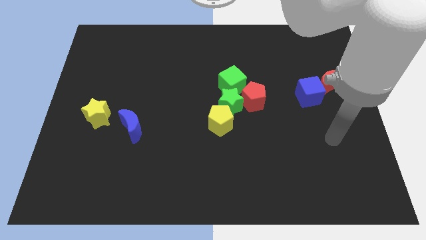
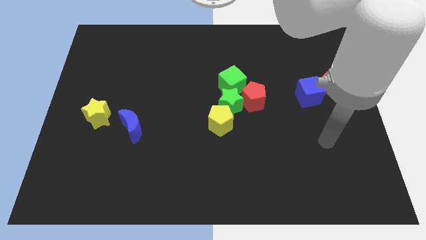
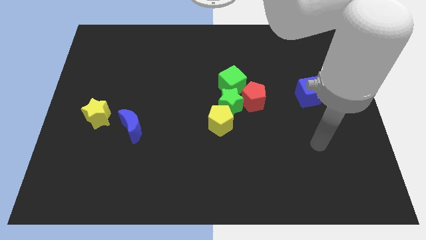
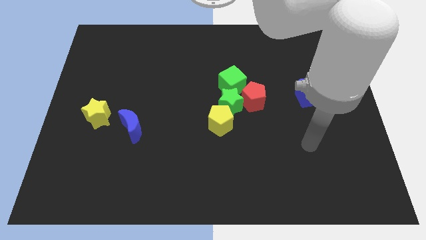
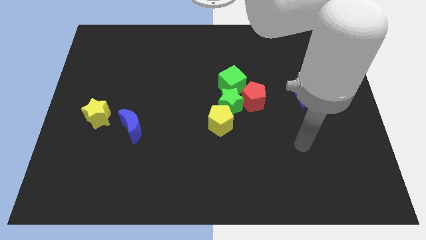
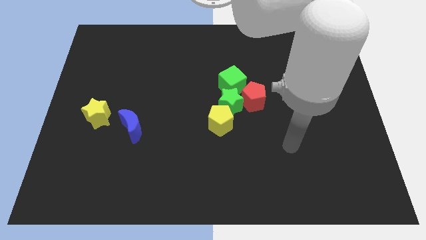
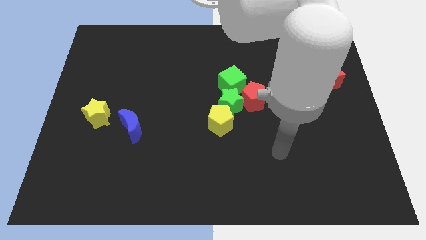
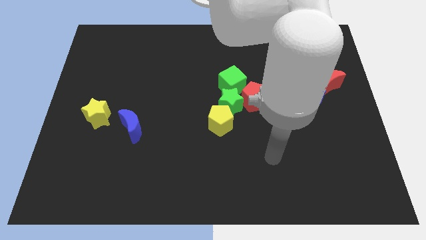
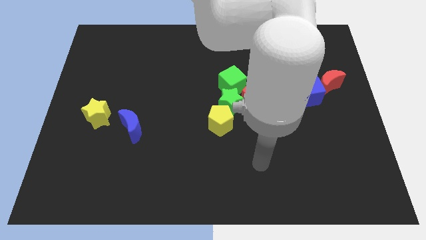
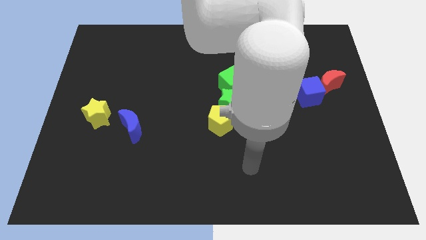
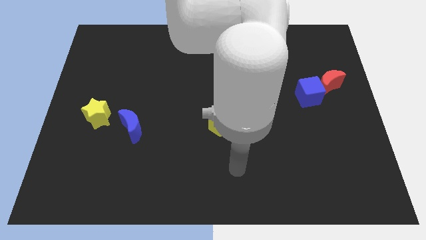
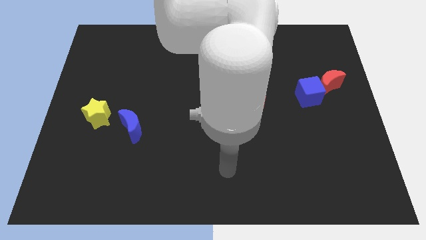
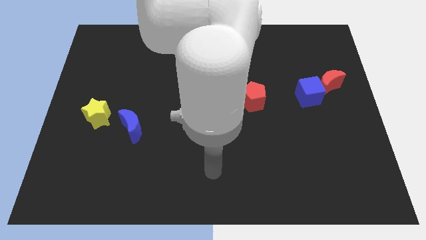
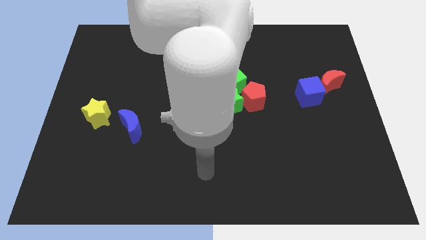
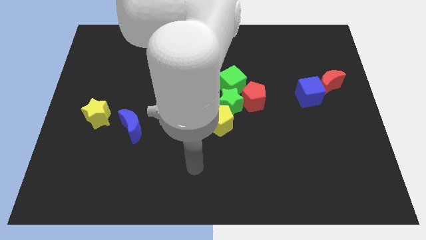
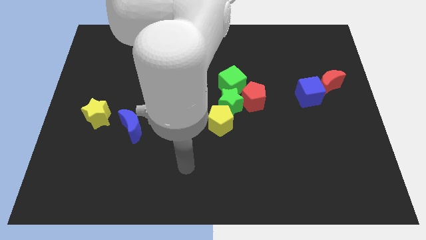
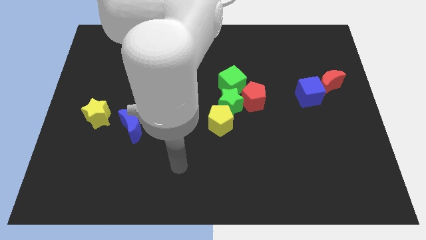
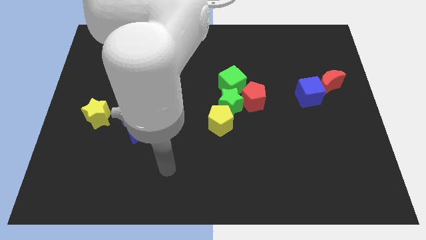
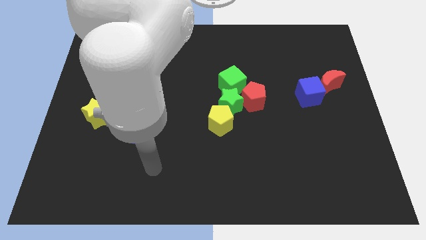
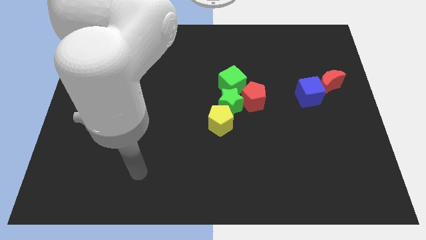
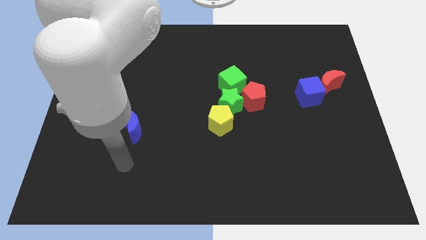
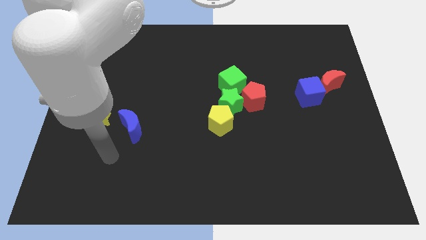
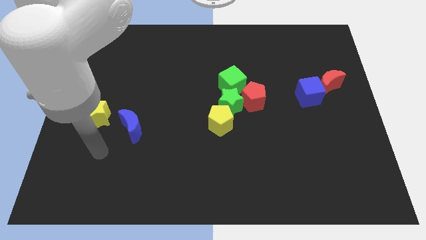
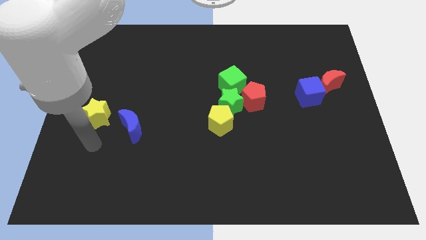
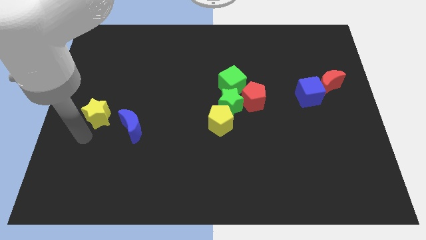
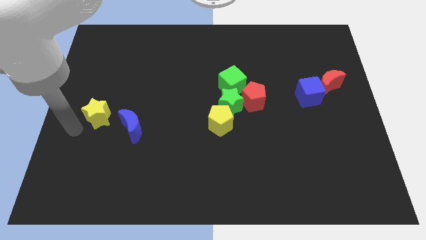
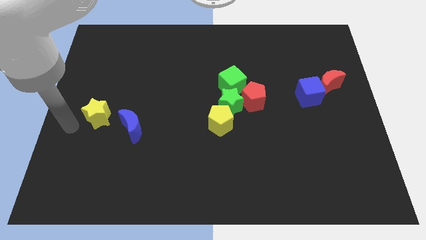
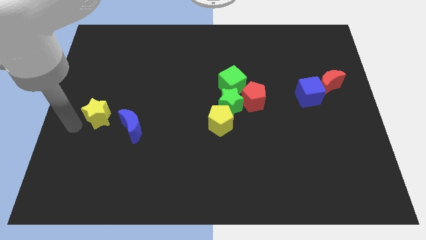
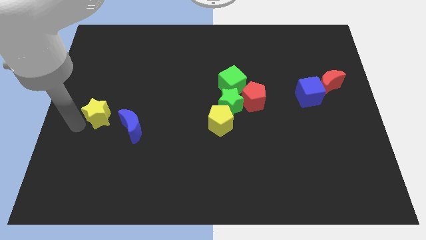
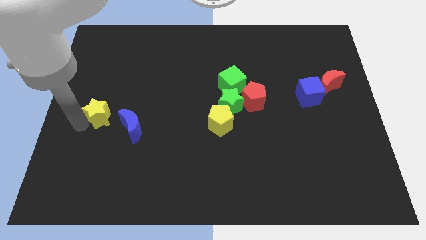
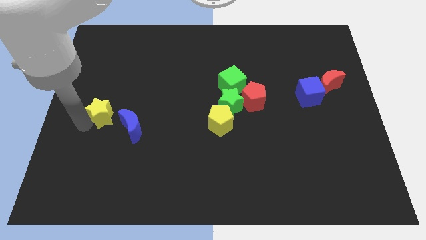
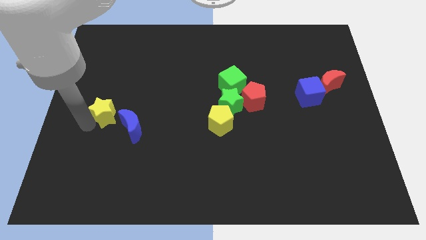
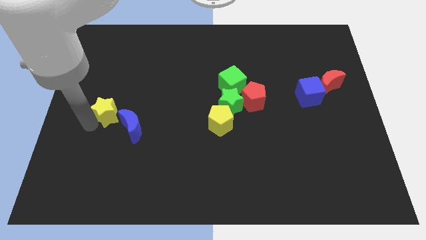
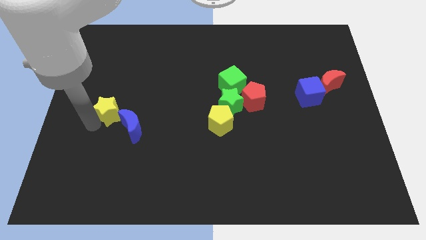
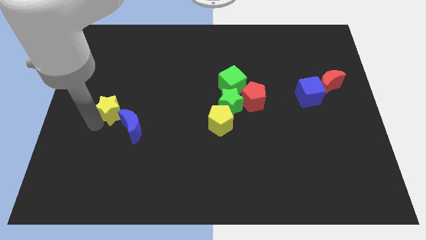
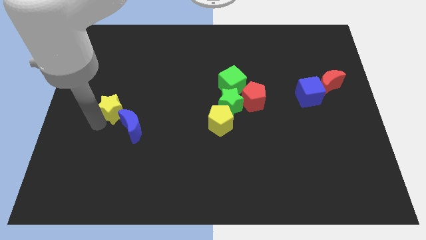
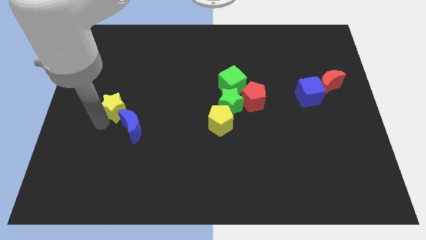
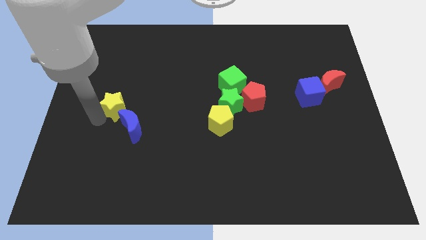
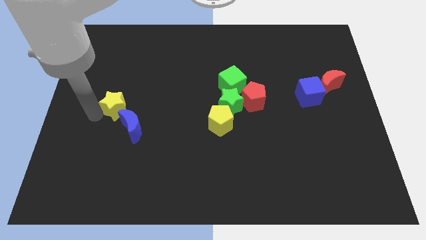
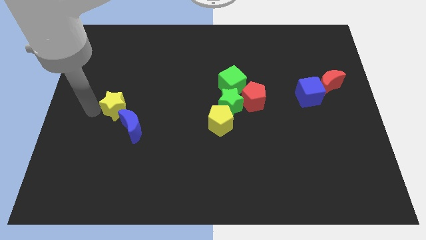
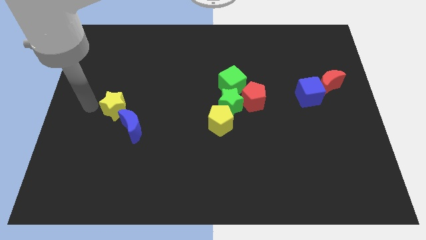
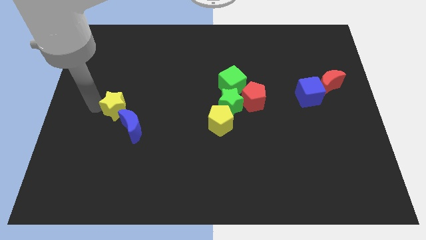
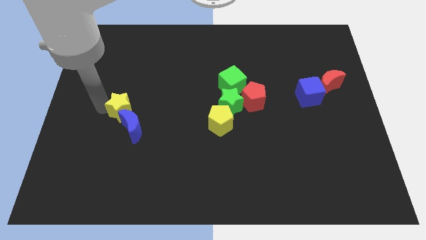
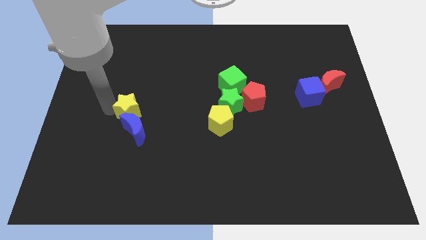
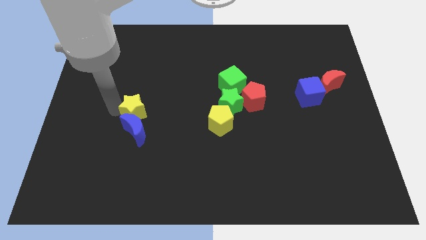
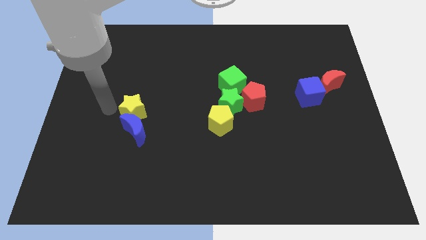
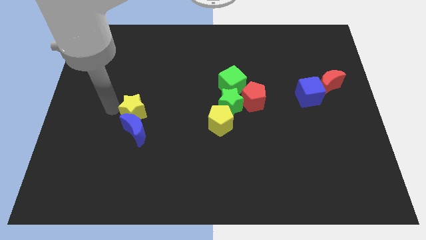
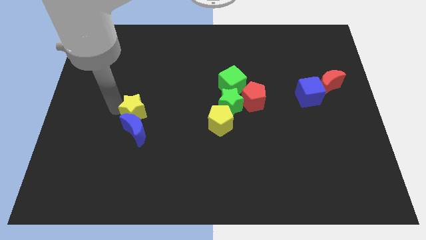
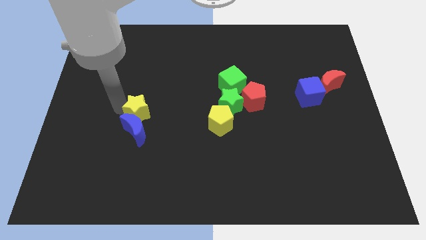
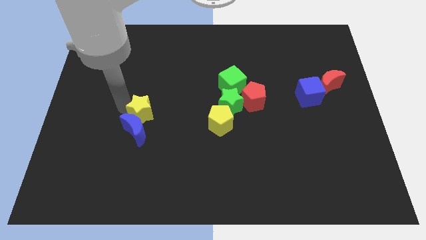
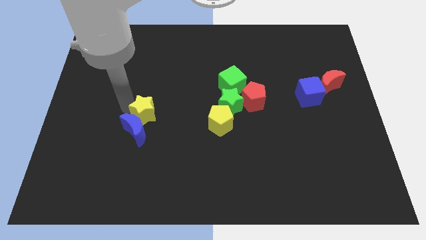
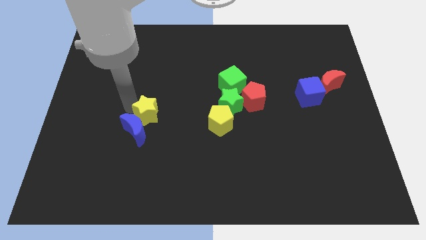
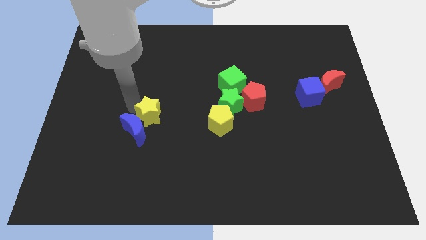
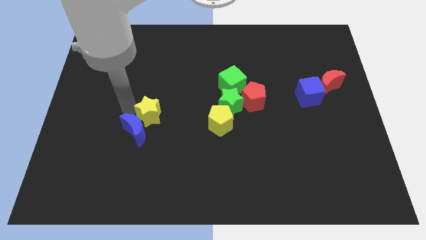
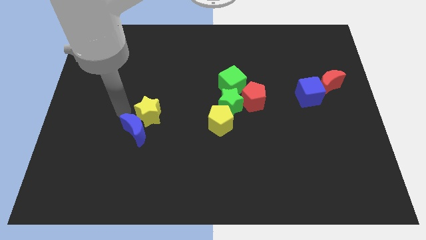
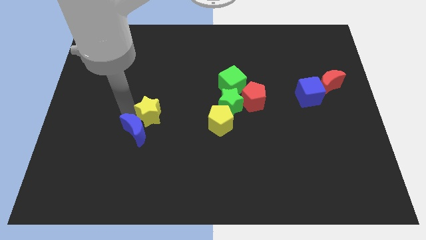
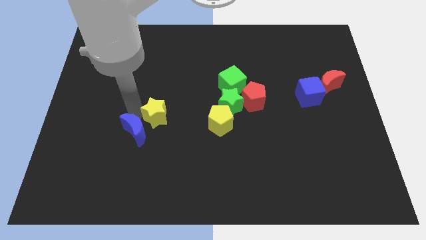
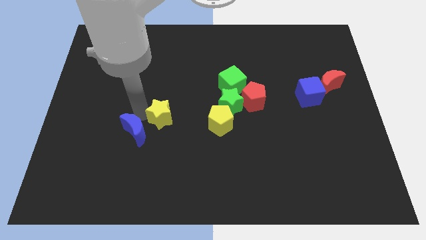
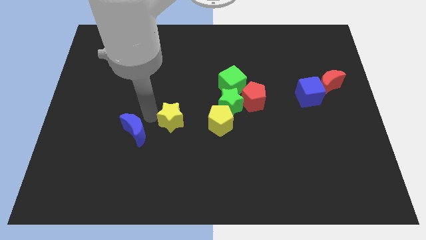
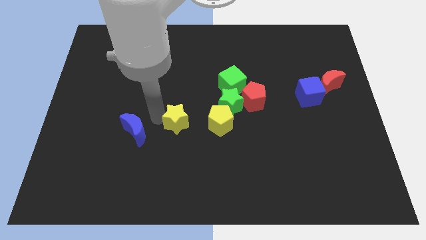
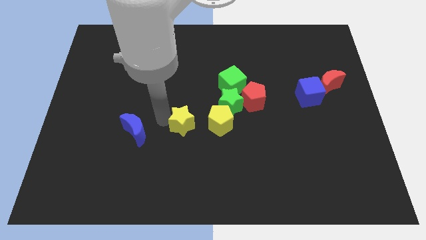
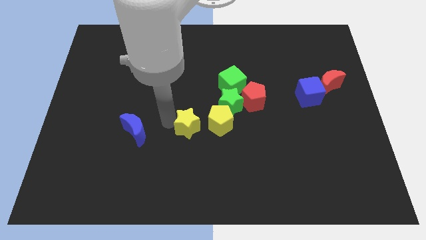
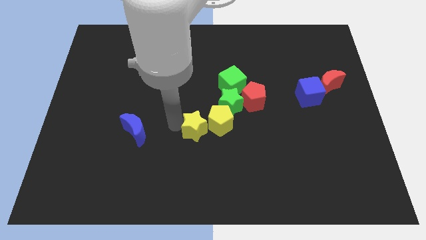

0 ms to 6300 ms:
push the yellow star to the yellow pentagon

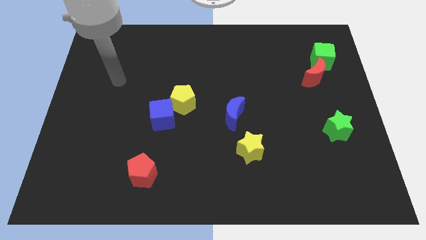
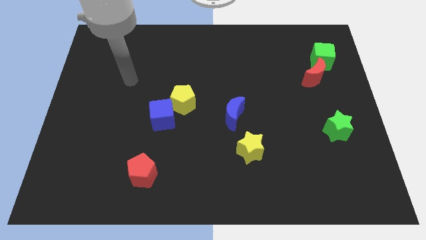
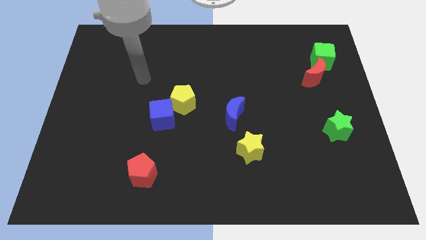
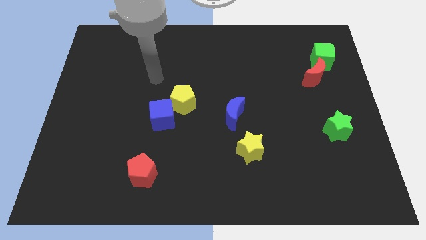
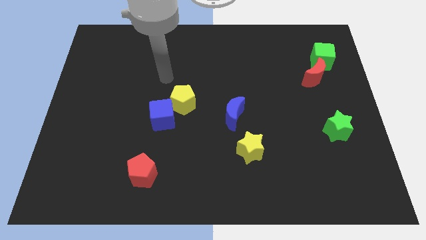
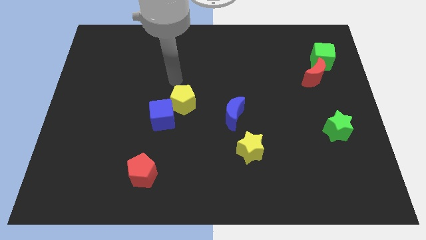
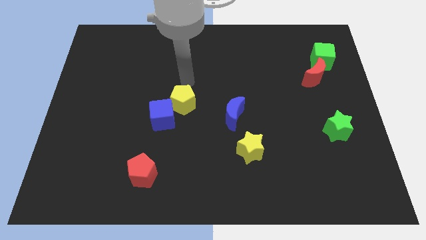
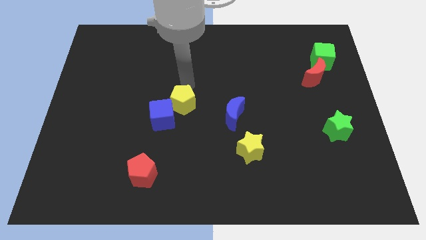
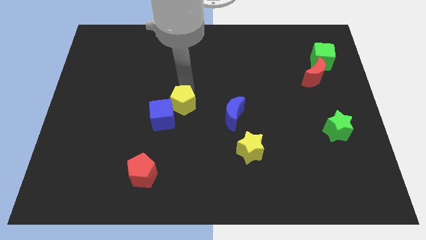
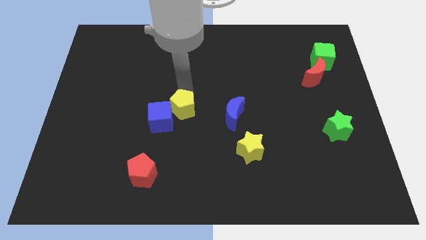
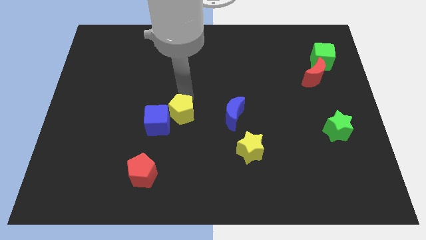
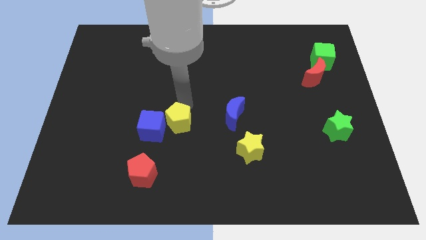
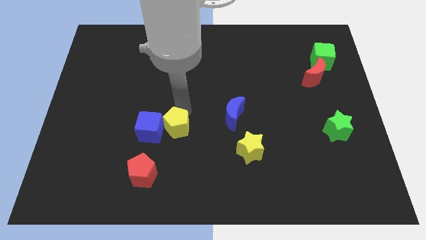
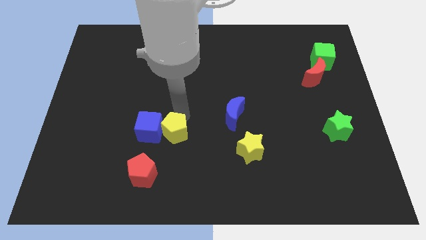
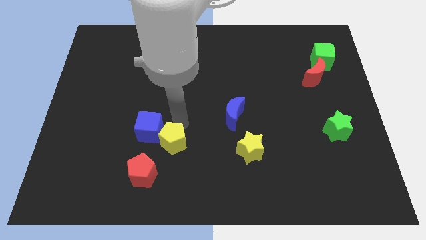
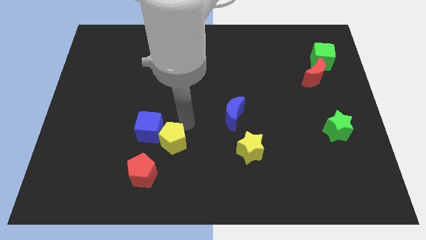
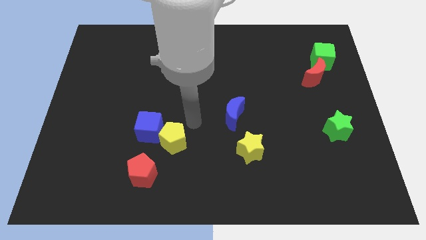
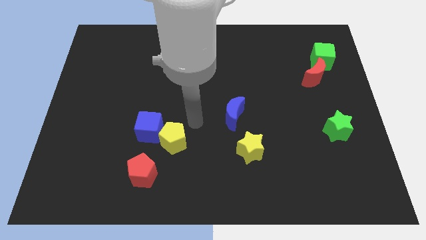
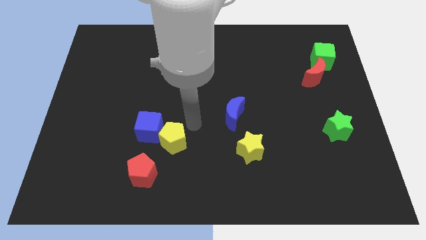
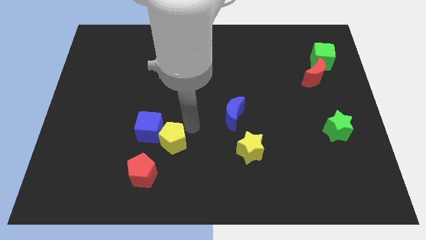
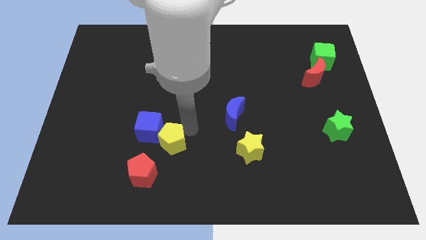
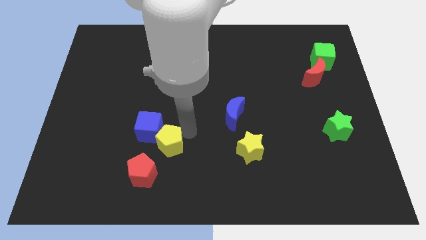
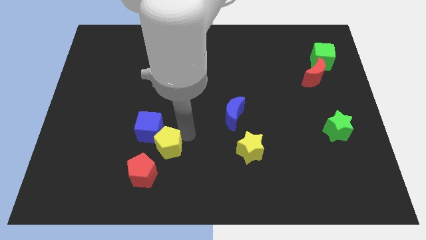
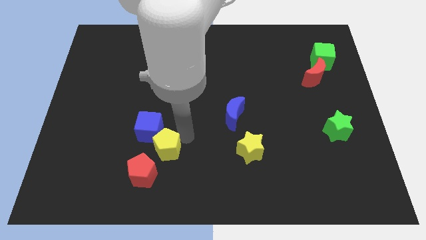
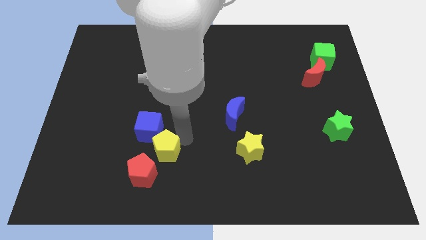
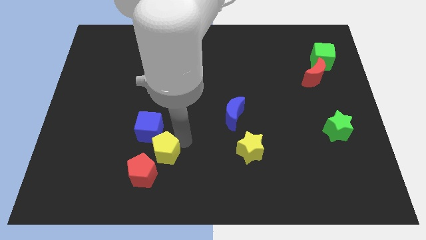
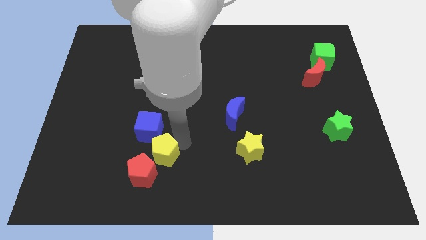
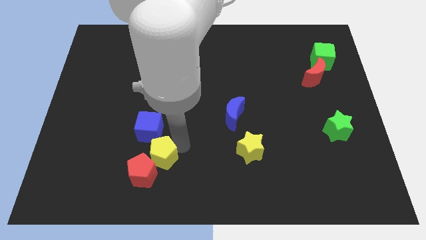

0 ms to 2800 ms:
move the yellow pentagon to the red pentagon
